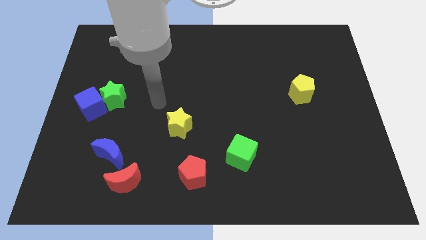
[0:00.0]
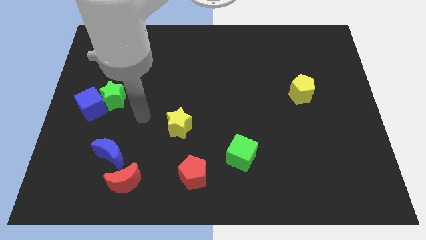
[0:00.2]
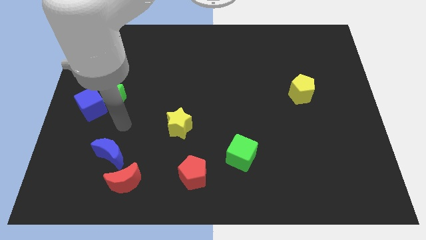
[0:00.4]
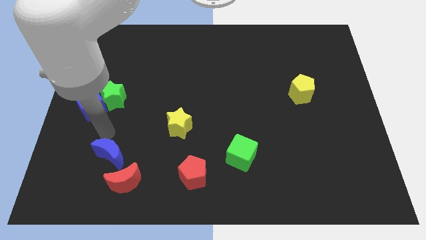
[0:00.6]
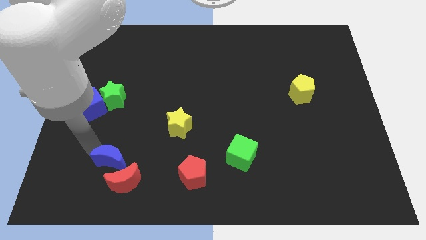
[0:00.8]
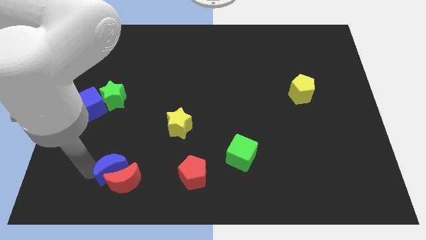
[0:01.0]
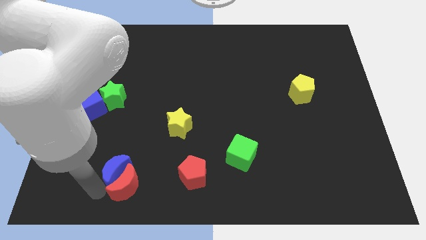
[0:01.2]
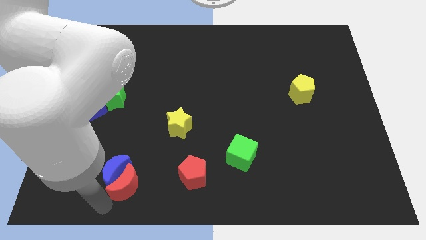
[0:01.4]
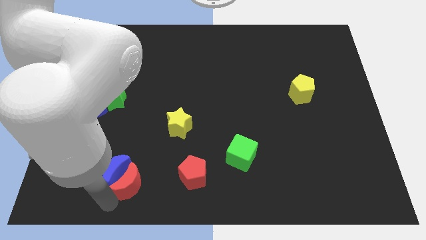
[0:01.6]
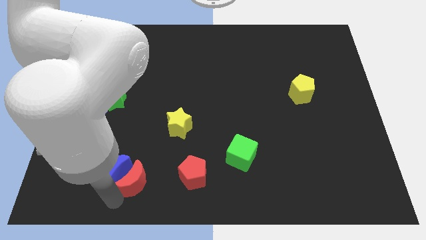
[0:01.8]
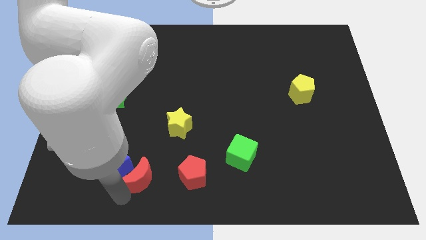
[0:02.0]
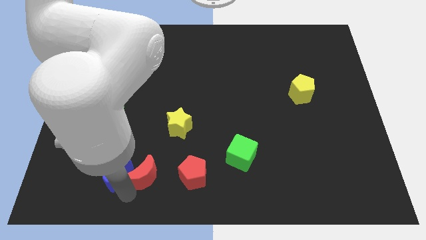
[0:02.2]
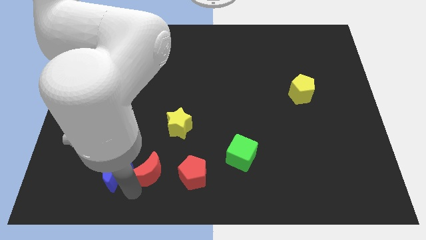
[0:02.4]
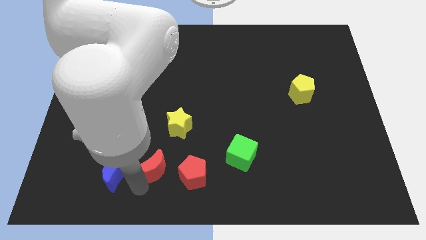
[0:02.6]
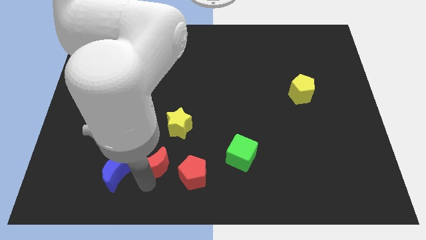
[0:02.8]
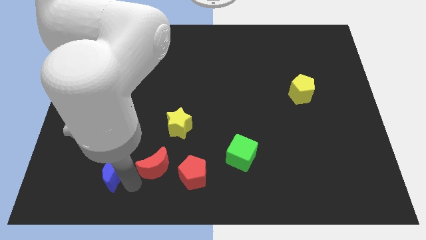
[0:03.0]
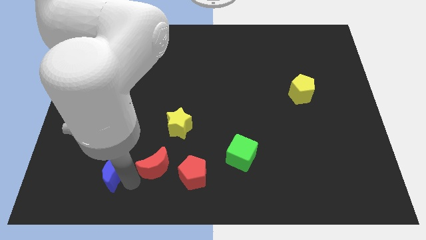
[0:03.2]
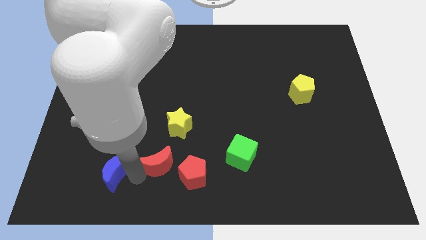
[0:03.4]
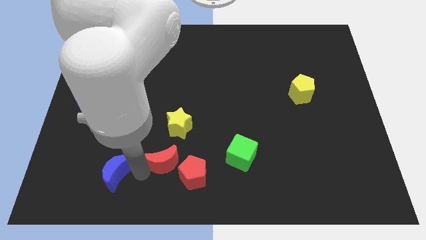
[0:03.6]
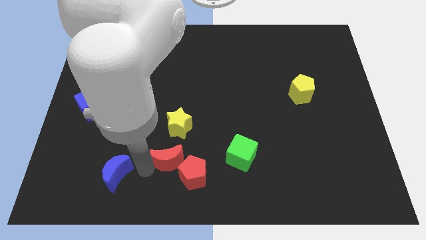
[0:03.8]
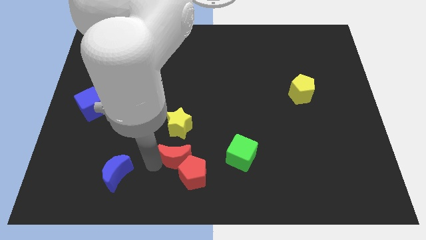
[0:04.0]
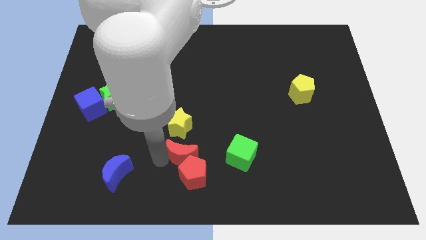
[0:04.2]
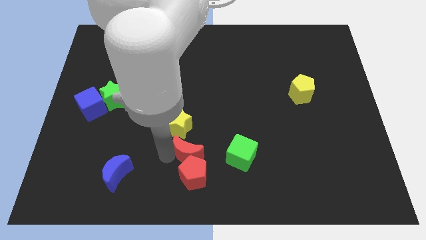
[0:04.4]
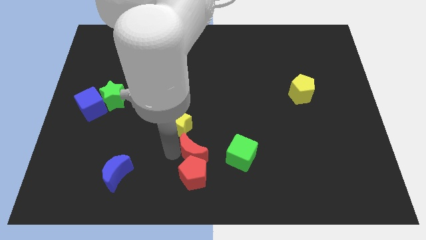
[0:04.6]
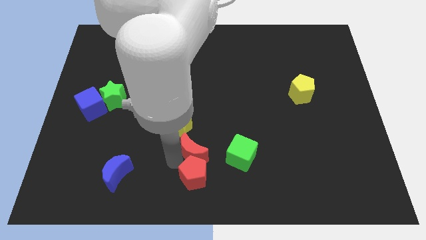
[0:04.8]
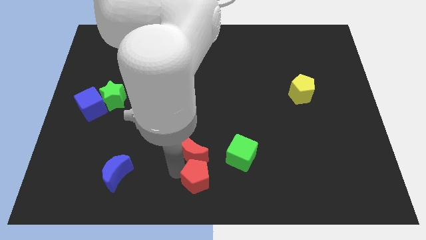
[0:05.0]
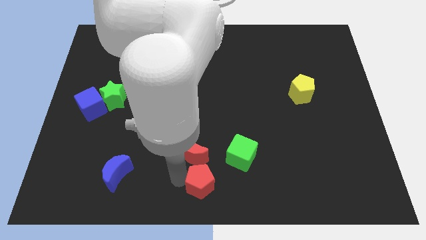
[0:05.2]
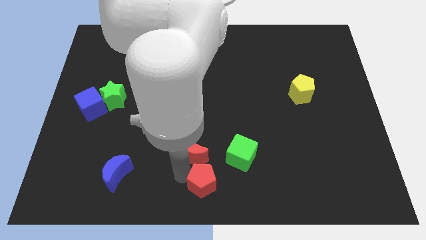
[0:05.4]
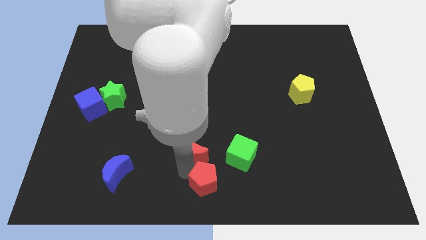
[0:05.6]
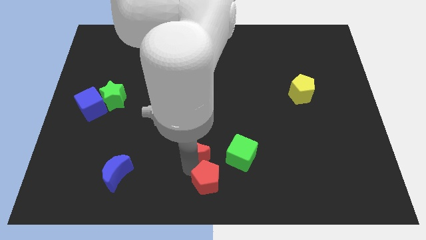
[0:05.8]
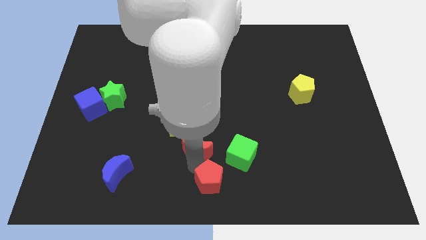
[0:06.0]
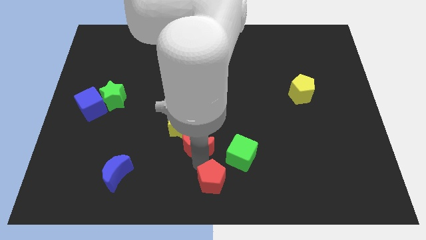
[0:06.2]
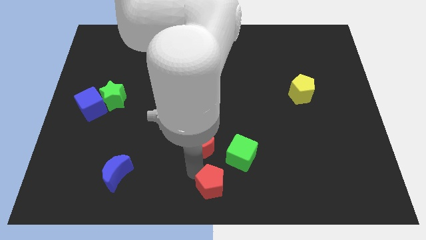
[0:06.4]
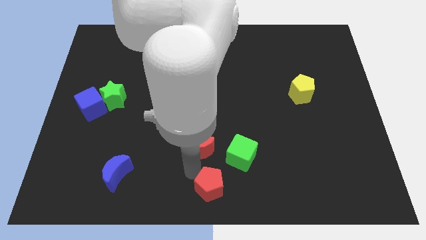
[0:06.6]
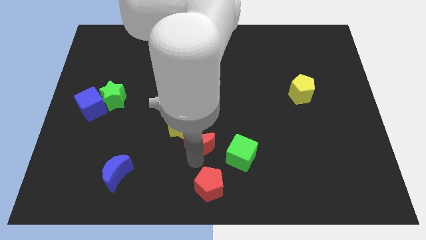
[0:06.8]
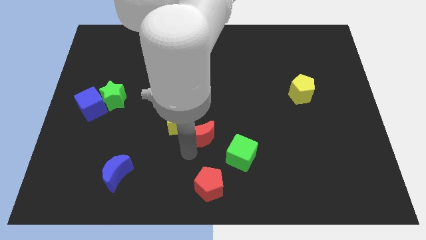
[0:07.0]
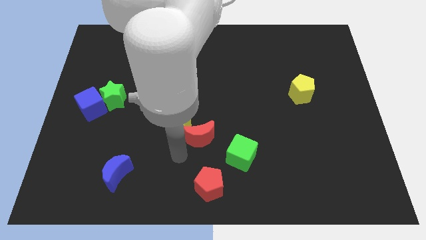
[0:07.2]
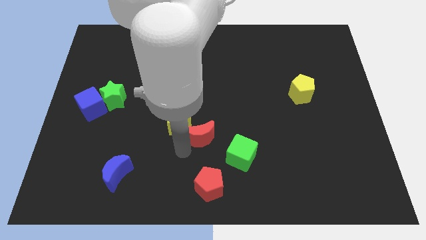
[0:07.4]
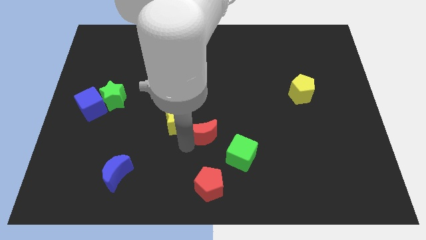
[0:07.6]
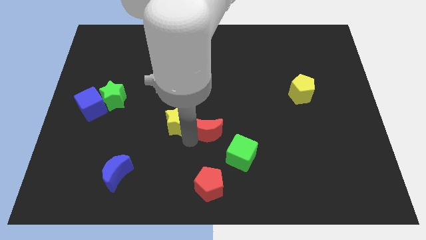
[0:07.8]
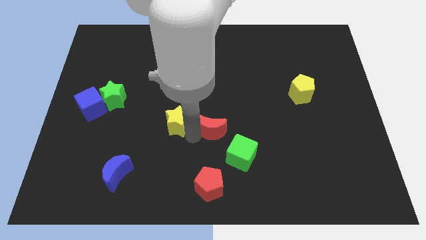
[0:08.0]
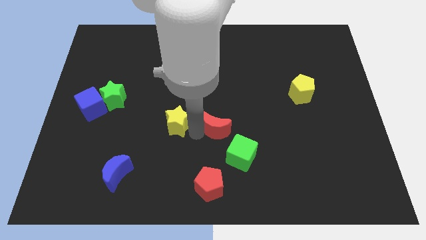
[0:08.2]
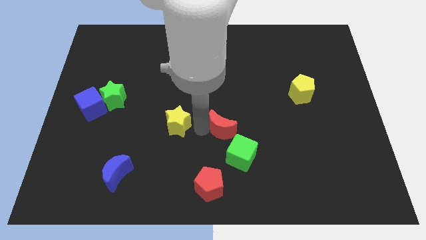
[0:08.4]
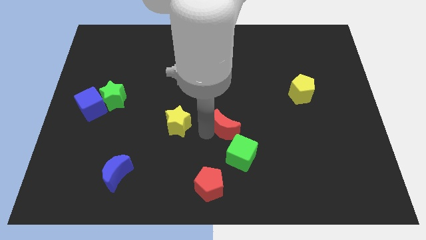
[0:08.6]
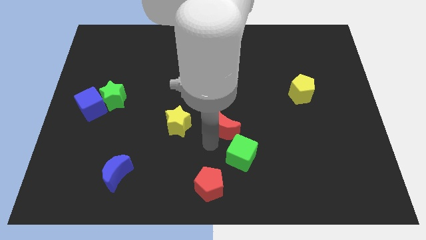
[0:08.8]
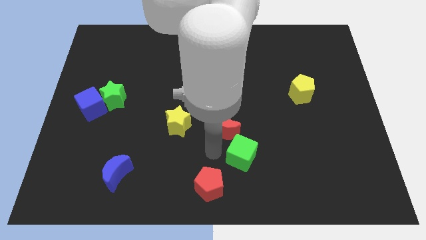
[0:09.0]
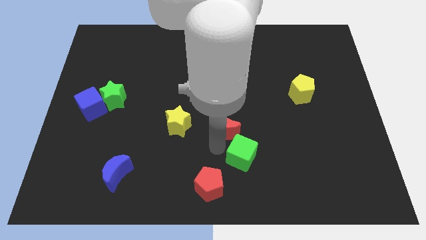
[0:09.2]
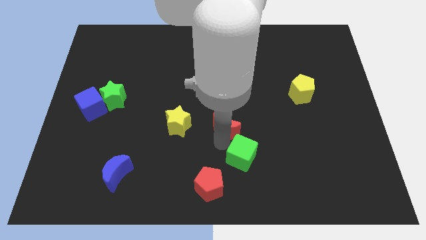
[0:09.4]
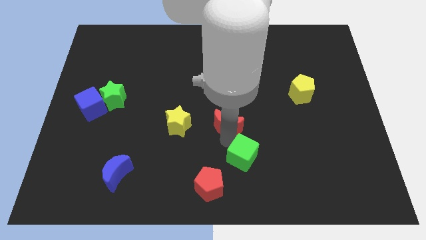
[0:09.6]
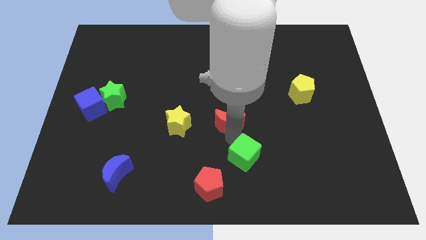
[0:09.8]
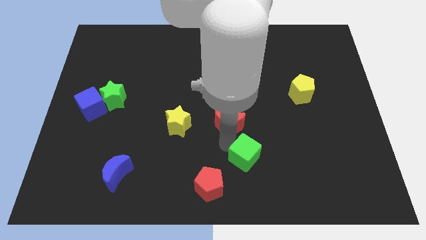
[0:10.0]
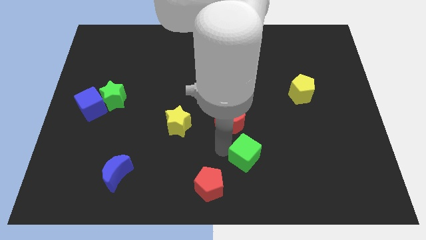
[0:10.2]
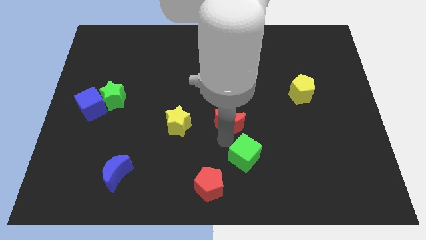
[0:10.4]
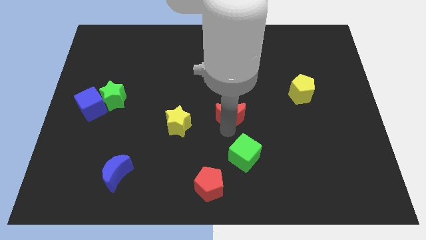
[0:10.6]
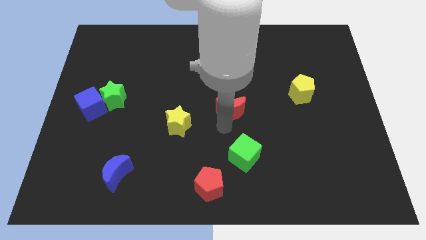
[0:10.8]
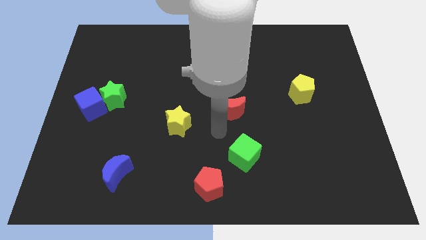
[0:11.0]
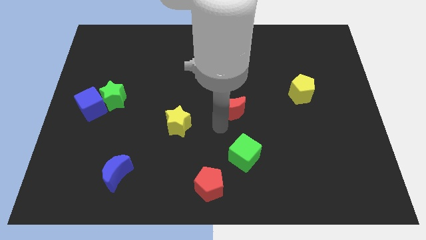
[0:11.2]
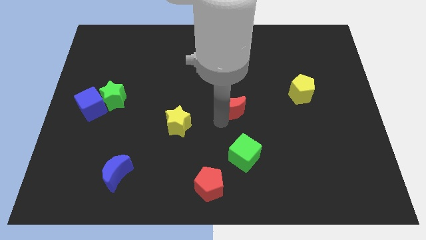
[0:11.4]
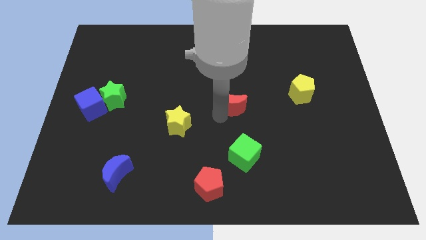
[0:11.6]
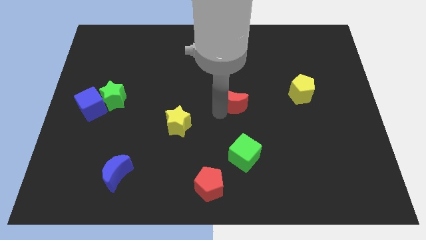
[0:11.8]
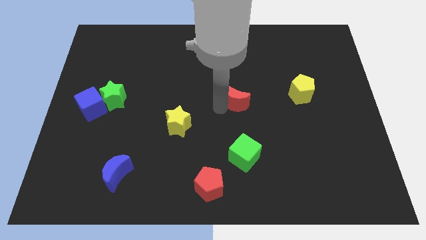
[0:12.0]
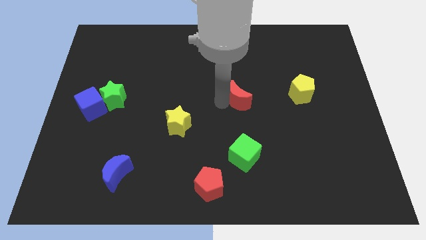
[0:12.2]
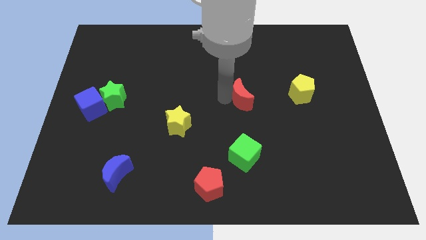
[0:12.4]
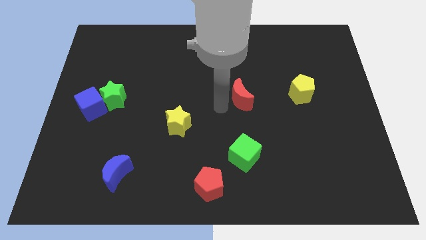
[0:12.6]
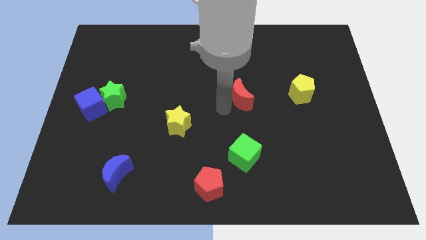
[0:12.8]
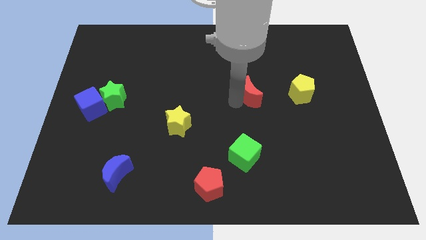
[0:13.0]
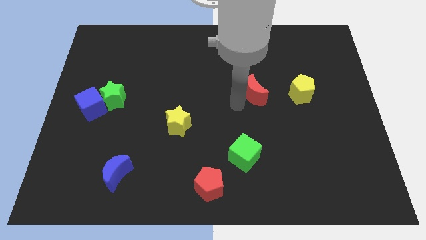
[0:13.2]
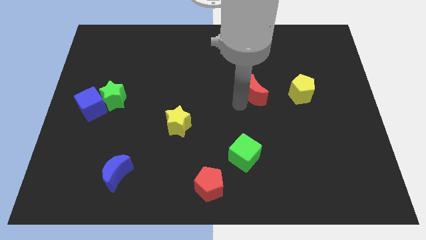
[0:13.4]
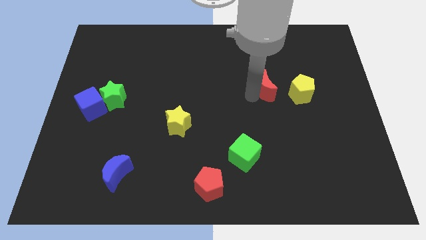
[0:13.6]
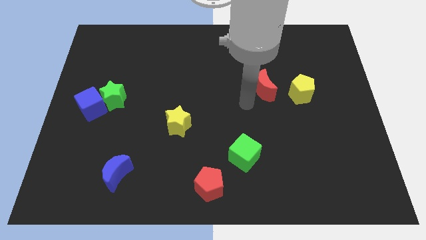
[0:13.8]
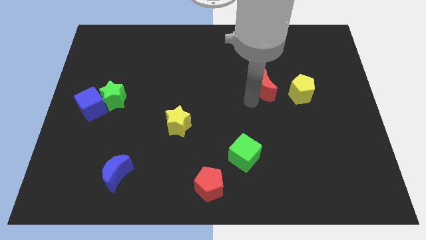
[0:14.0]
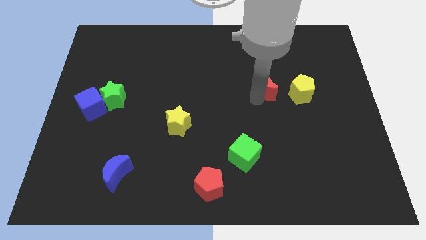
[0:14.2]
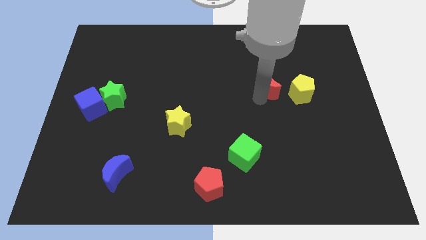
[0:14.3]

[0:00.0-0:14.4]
push the red moon to the top left side of the yellow pentagon

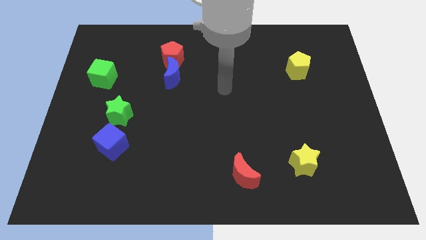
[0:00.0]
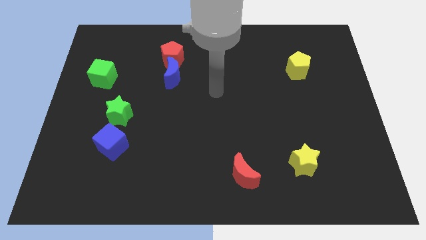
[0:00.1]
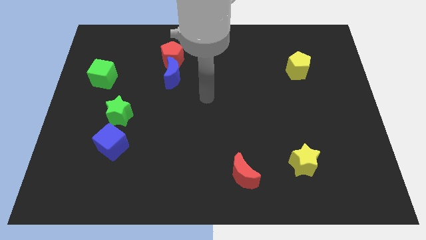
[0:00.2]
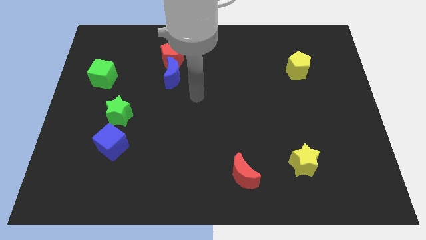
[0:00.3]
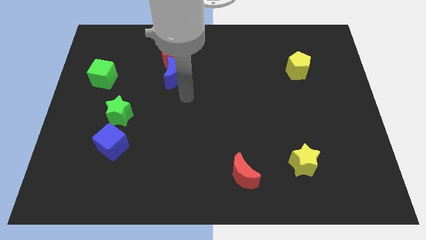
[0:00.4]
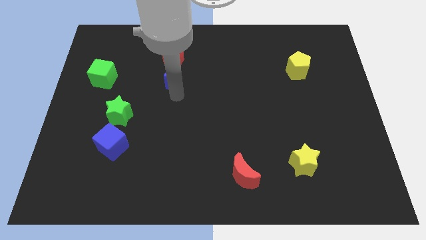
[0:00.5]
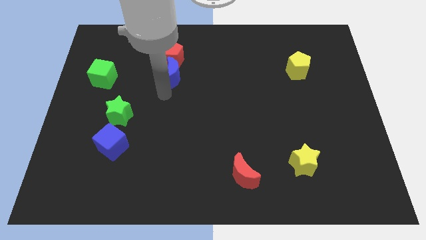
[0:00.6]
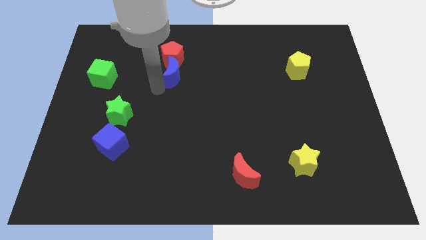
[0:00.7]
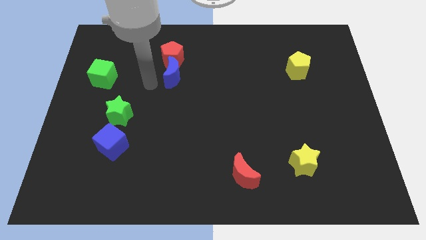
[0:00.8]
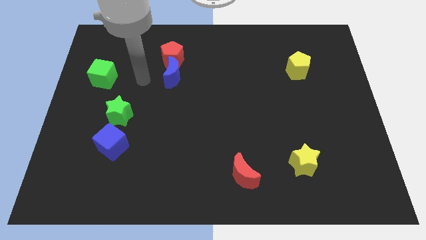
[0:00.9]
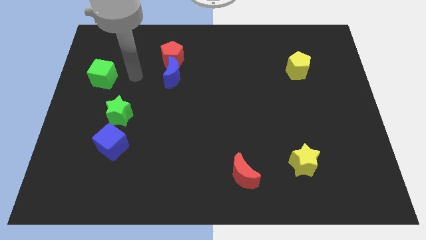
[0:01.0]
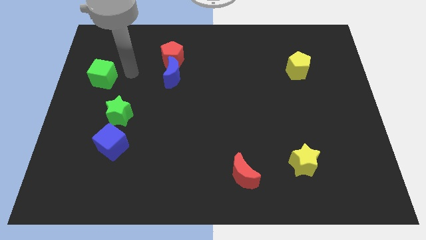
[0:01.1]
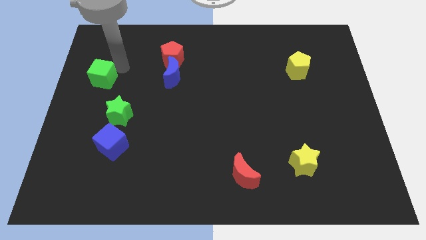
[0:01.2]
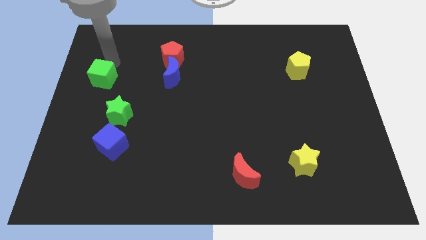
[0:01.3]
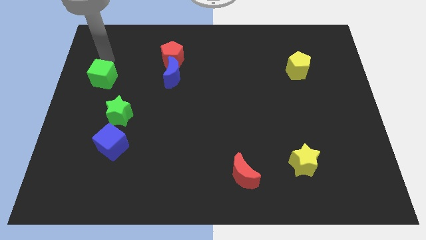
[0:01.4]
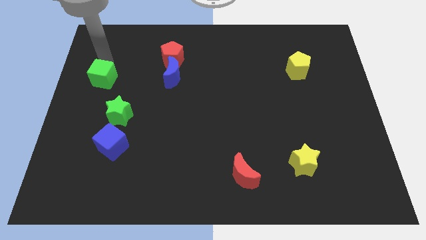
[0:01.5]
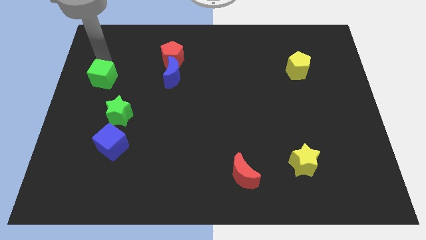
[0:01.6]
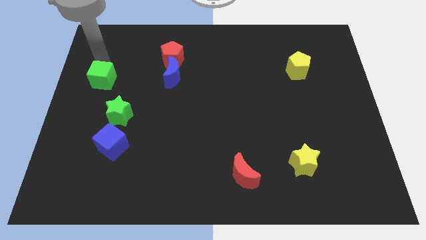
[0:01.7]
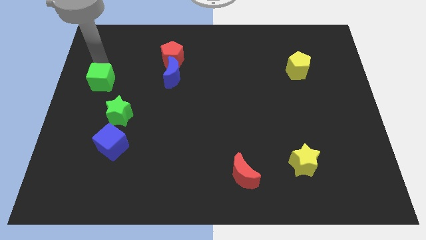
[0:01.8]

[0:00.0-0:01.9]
slide the green cube to the top left of the green star
